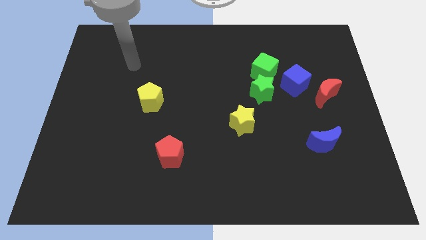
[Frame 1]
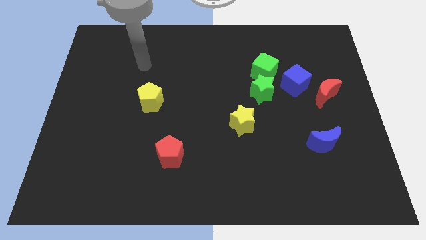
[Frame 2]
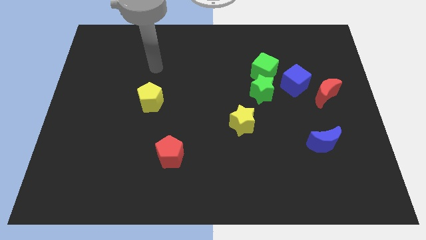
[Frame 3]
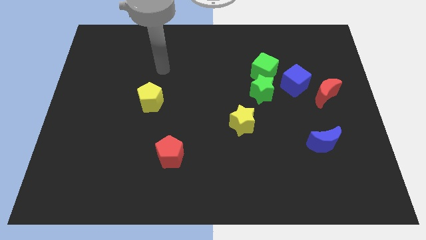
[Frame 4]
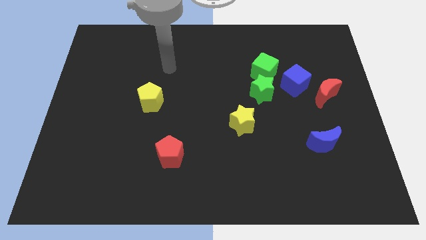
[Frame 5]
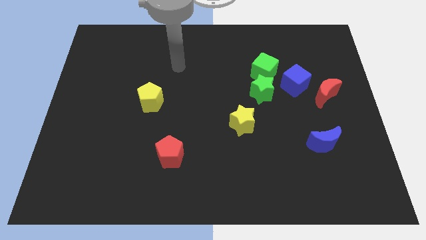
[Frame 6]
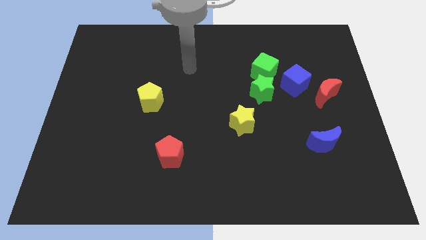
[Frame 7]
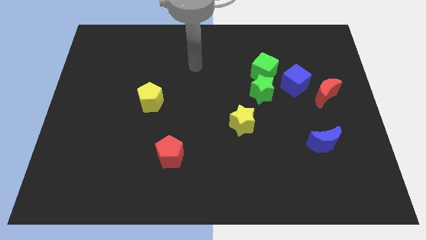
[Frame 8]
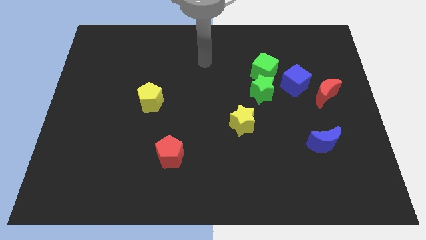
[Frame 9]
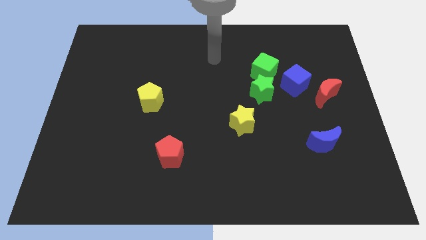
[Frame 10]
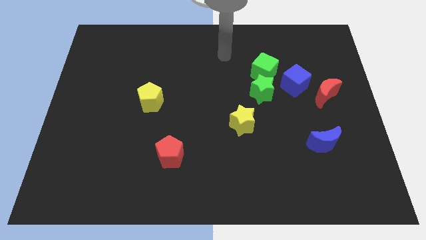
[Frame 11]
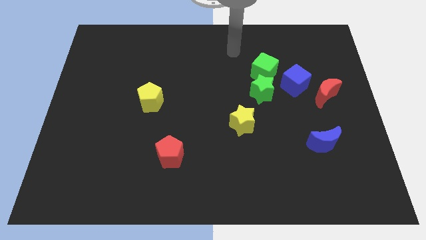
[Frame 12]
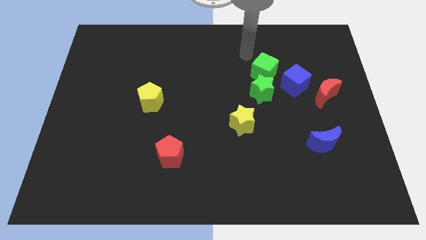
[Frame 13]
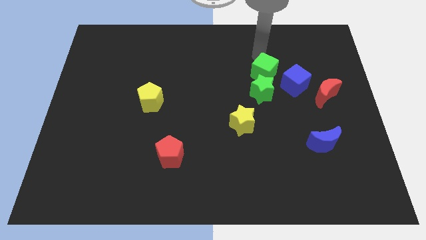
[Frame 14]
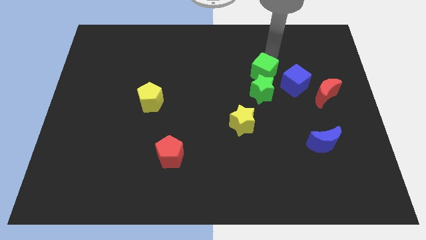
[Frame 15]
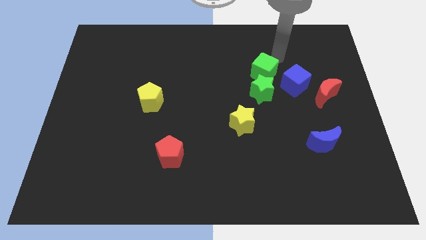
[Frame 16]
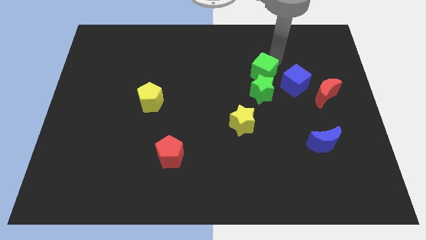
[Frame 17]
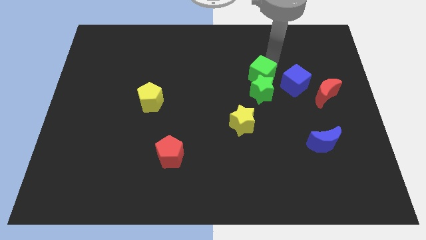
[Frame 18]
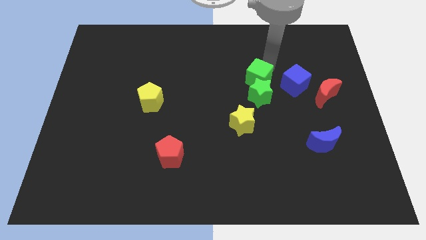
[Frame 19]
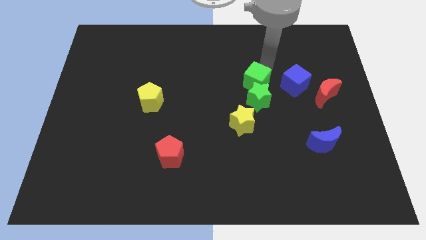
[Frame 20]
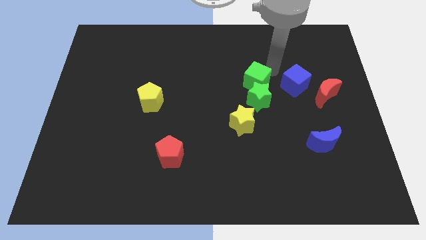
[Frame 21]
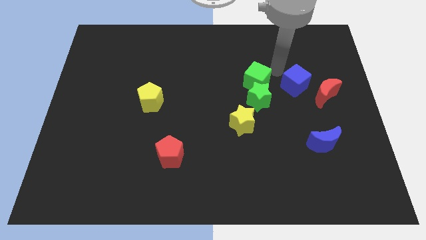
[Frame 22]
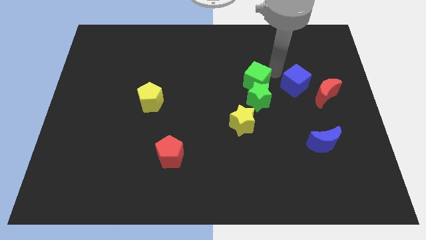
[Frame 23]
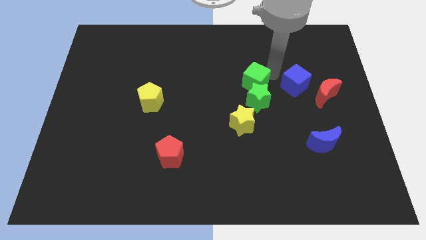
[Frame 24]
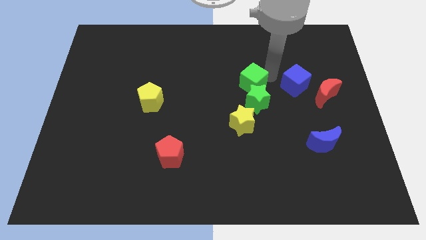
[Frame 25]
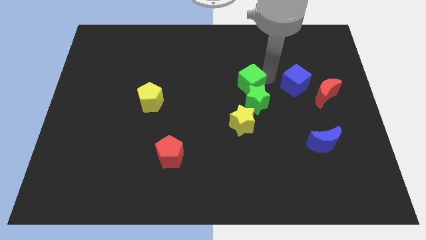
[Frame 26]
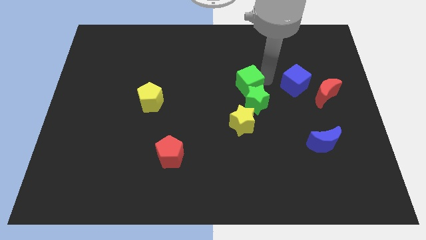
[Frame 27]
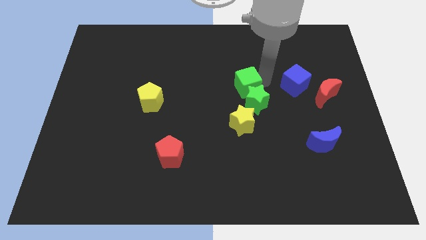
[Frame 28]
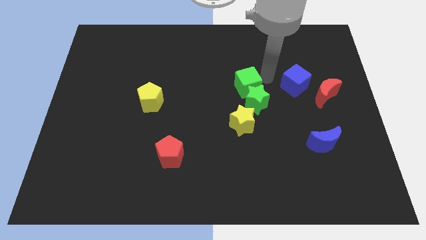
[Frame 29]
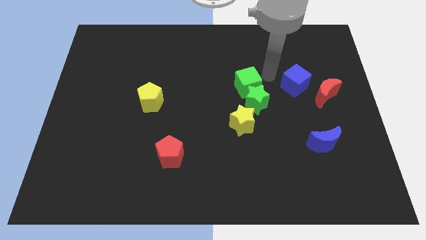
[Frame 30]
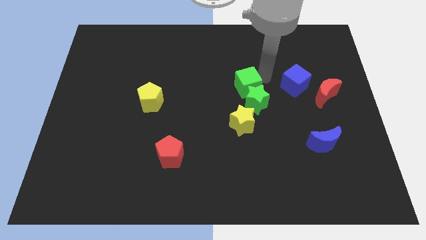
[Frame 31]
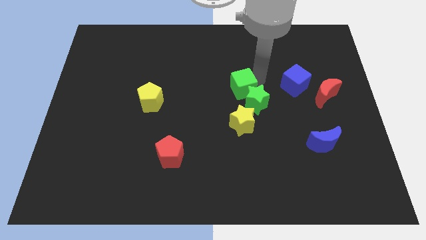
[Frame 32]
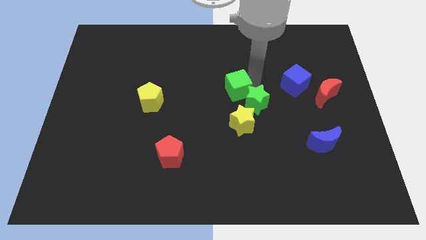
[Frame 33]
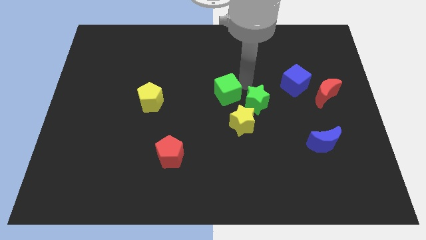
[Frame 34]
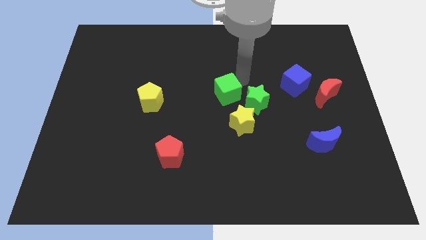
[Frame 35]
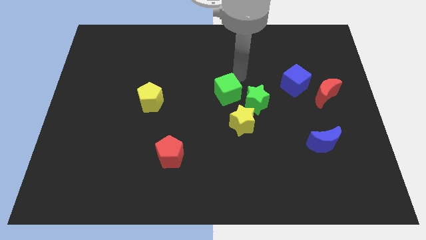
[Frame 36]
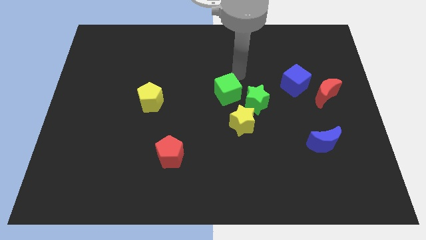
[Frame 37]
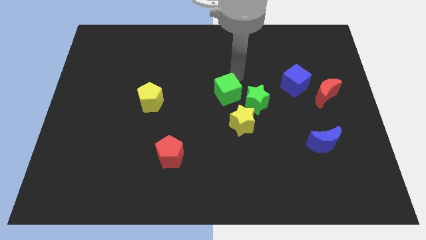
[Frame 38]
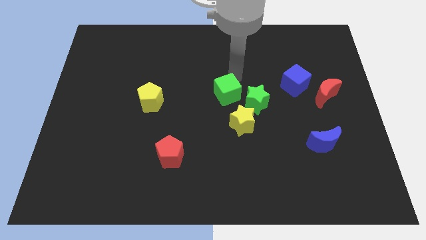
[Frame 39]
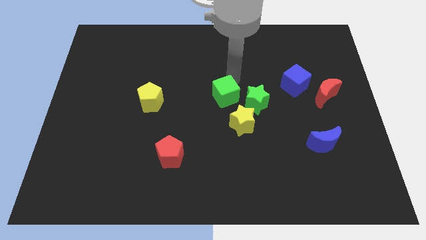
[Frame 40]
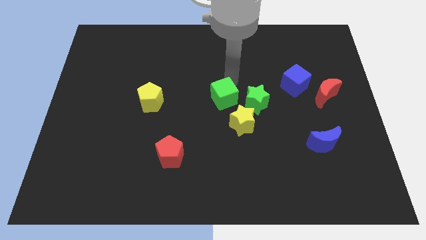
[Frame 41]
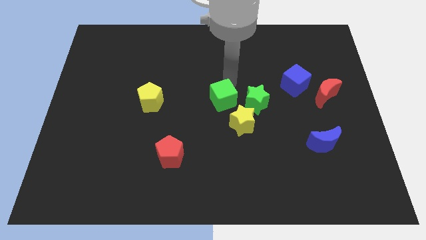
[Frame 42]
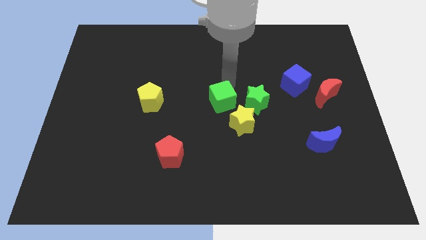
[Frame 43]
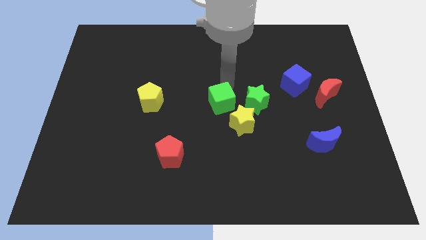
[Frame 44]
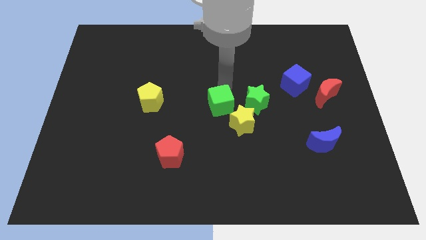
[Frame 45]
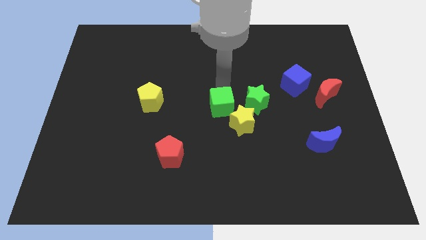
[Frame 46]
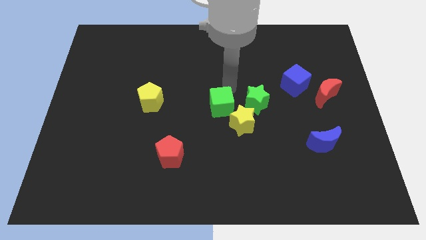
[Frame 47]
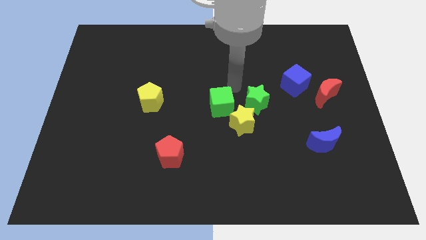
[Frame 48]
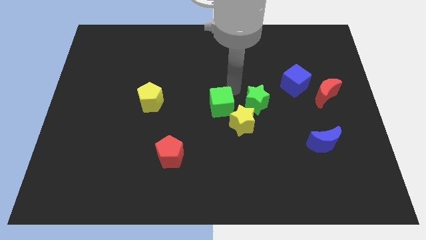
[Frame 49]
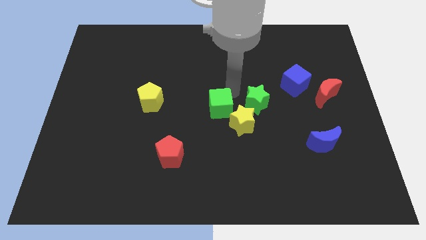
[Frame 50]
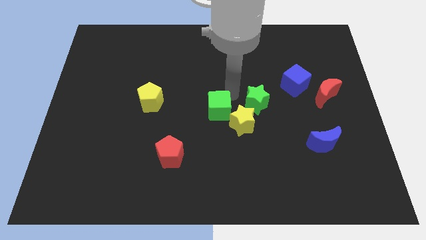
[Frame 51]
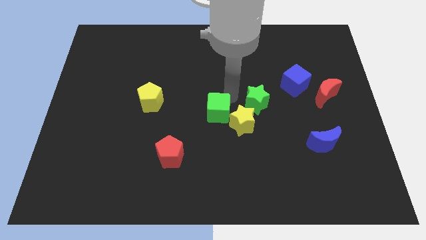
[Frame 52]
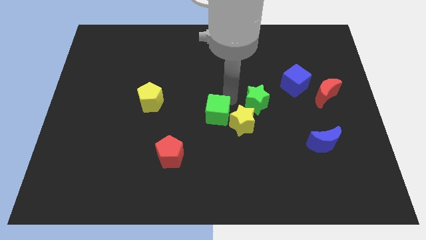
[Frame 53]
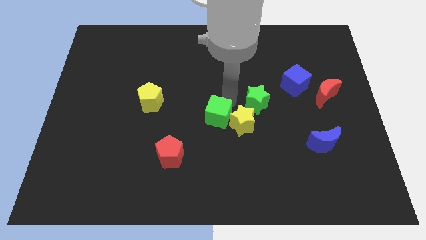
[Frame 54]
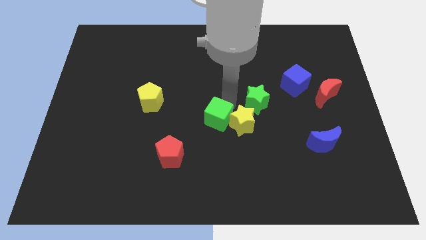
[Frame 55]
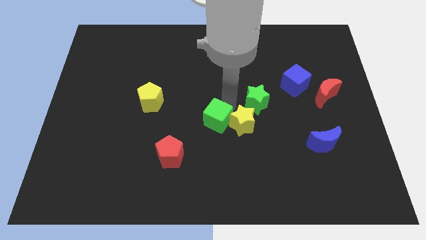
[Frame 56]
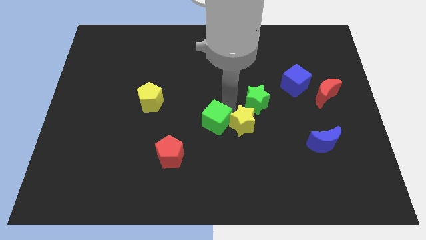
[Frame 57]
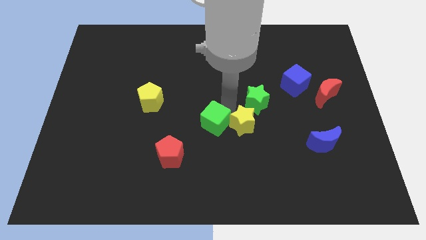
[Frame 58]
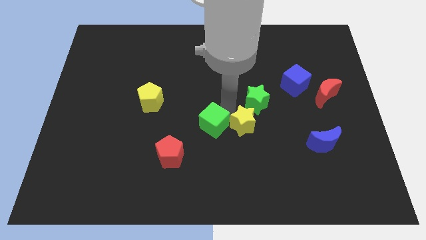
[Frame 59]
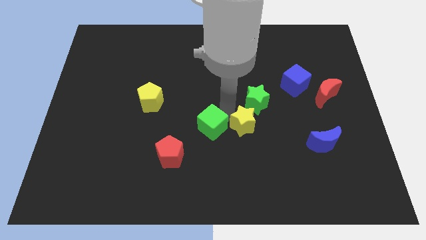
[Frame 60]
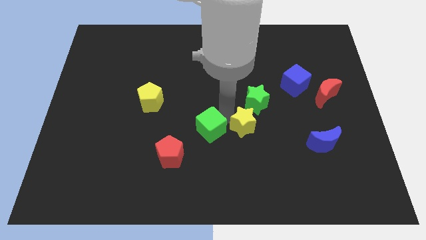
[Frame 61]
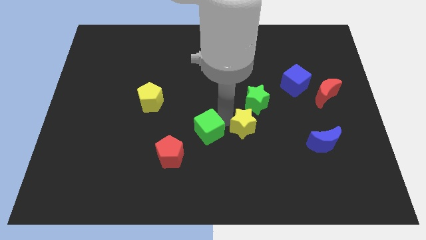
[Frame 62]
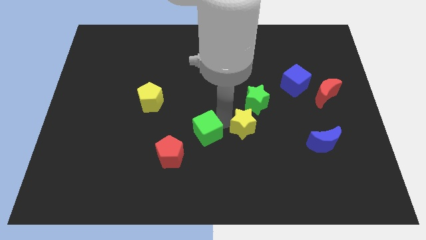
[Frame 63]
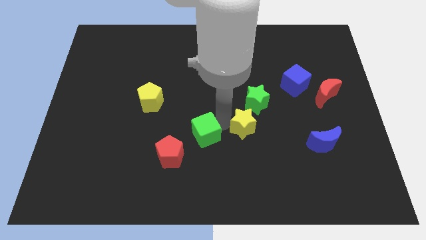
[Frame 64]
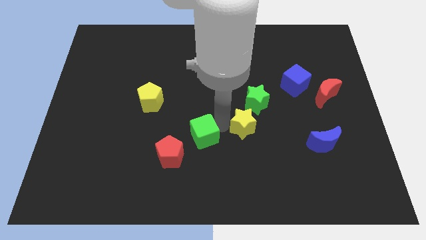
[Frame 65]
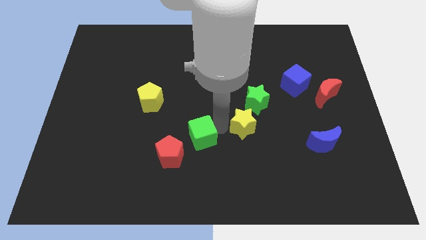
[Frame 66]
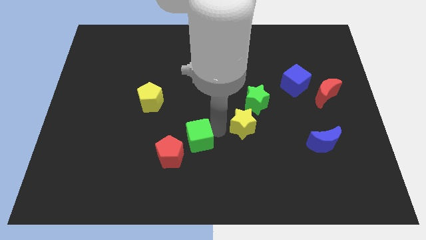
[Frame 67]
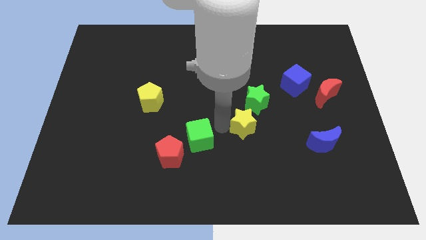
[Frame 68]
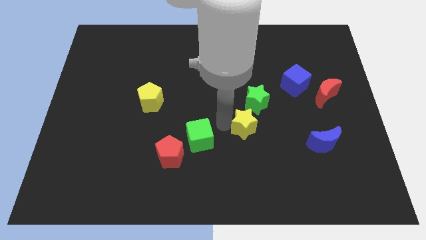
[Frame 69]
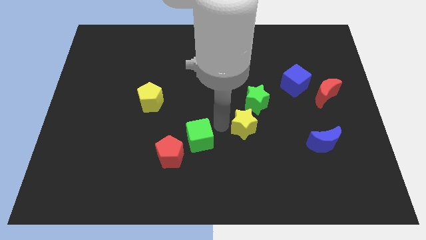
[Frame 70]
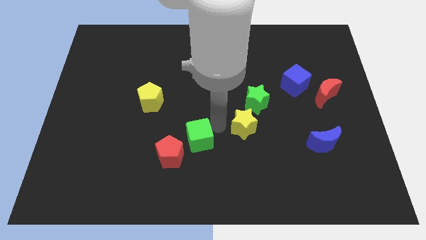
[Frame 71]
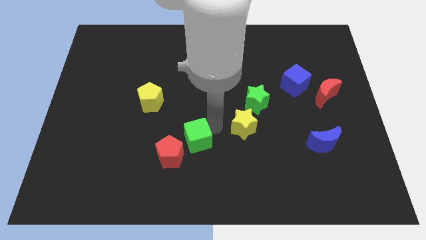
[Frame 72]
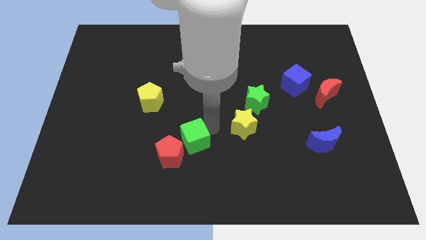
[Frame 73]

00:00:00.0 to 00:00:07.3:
slide the green cube close to the red pentagon
